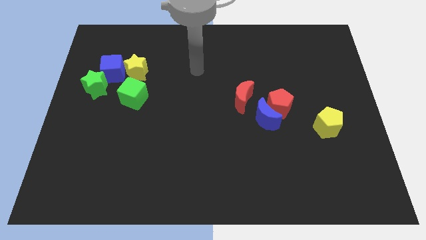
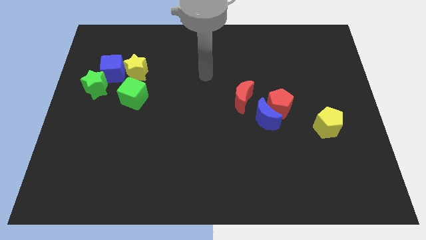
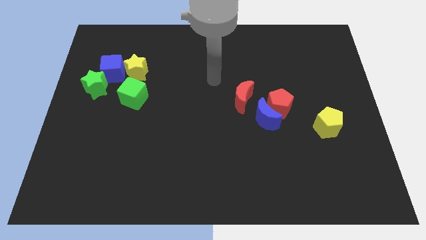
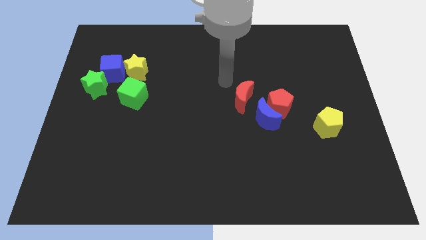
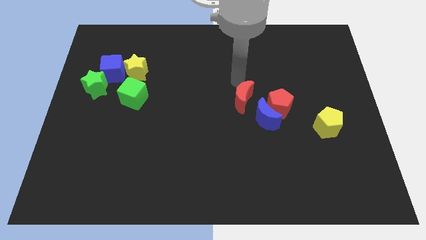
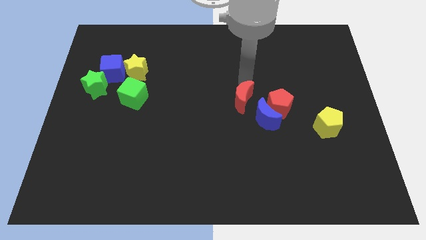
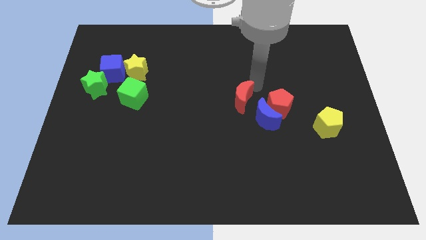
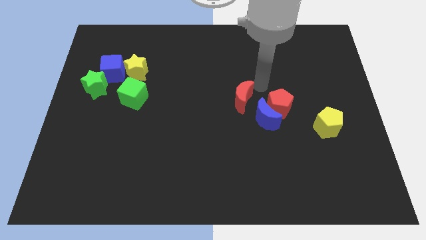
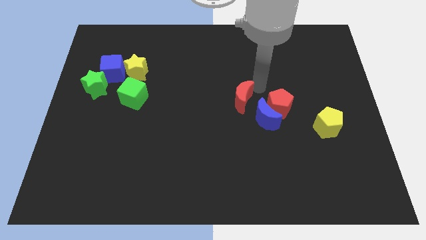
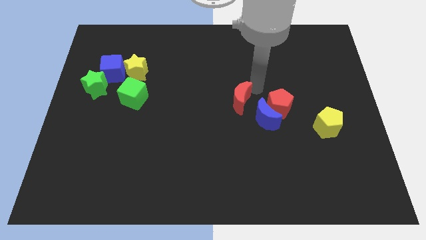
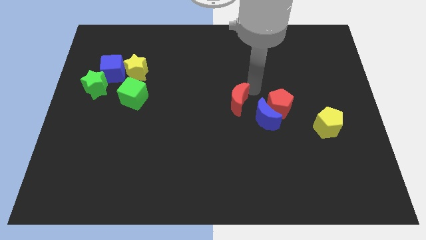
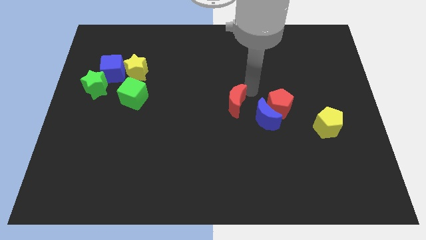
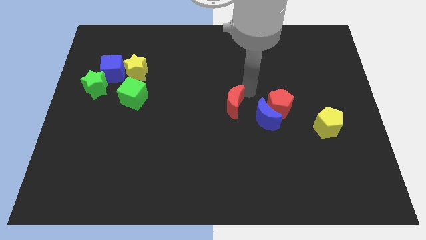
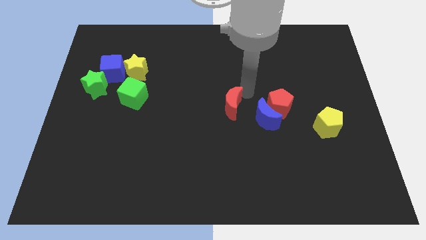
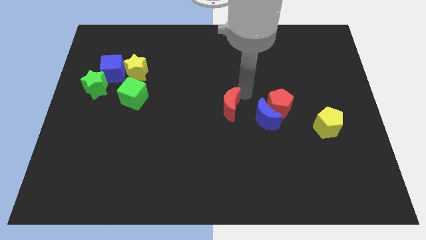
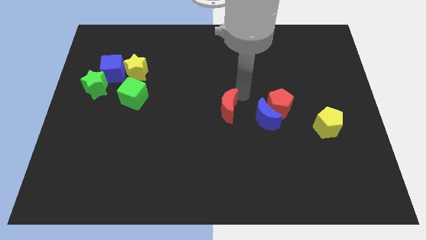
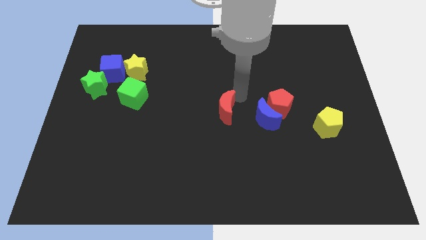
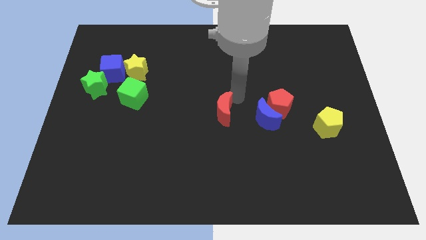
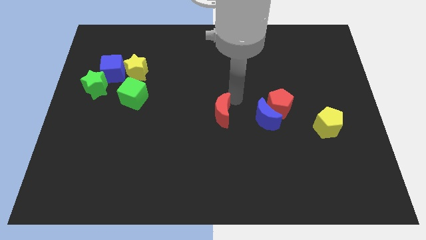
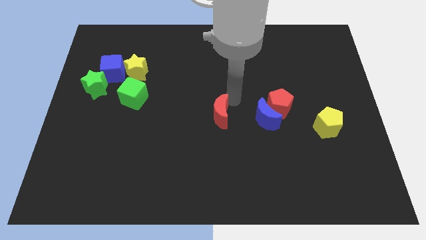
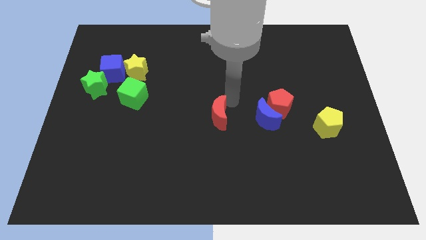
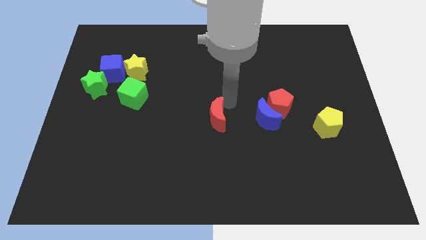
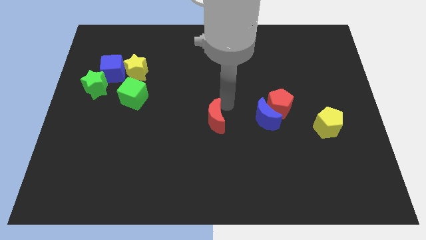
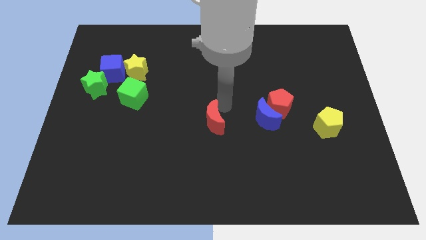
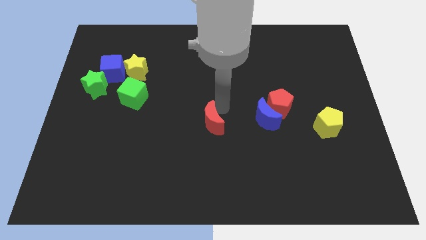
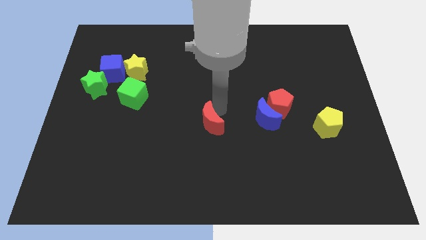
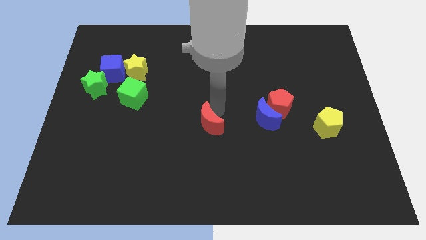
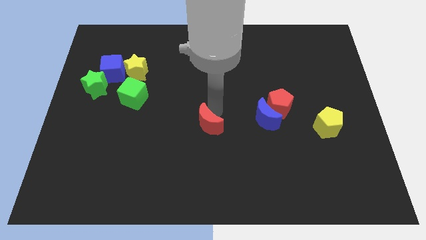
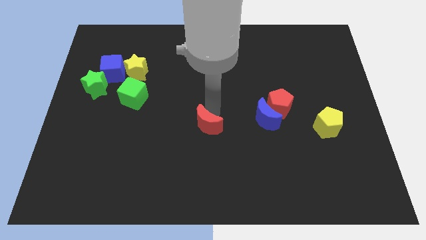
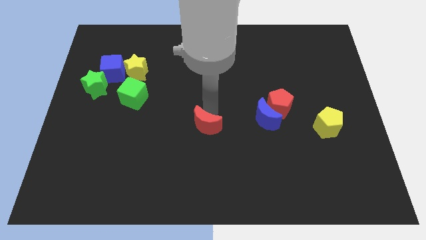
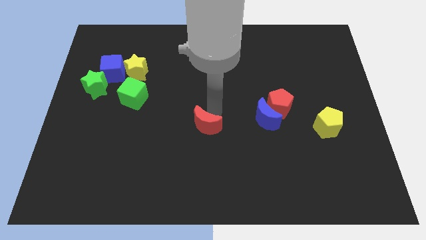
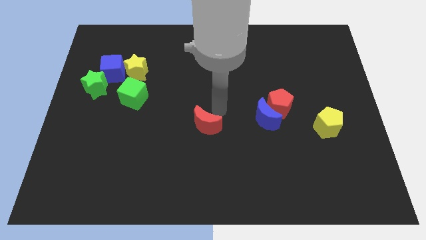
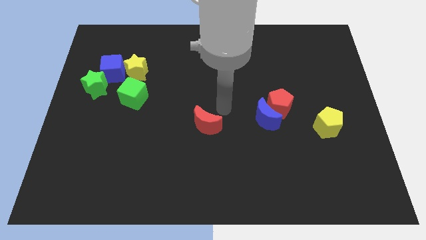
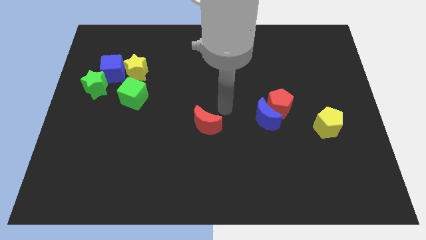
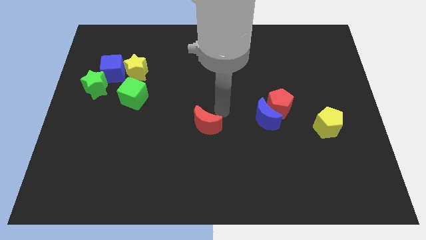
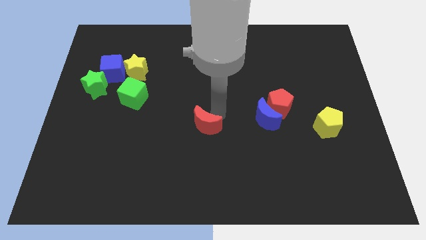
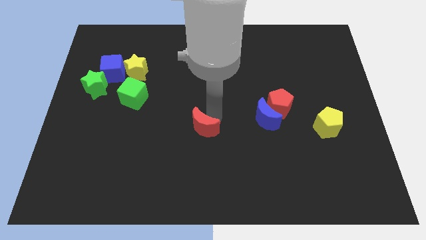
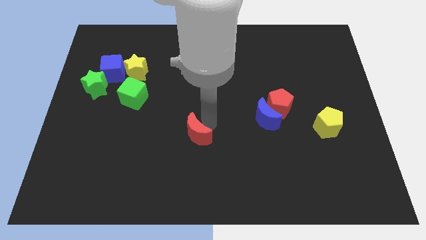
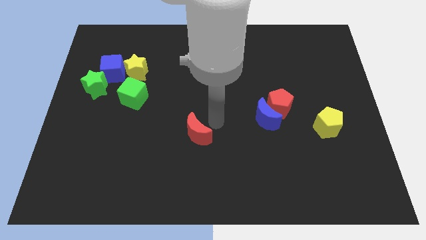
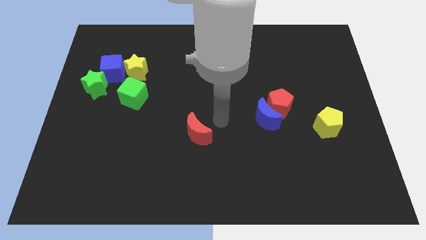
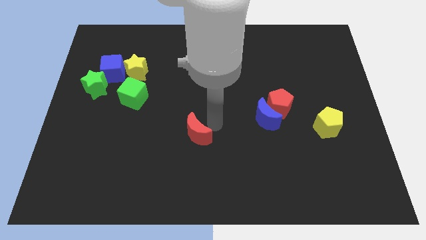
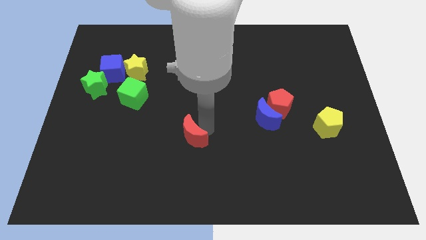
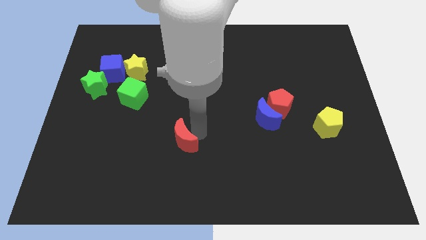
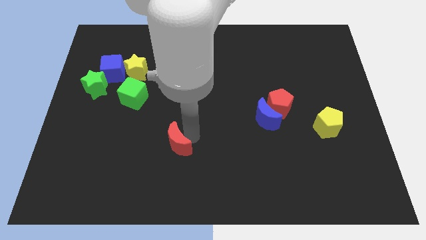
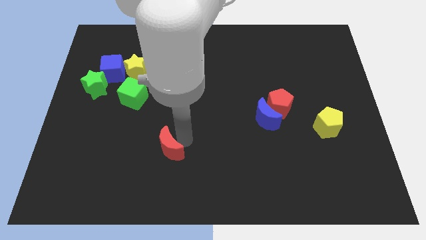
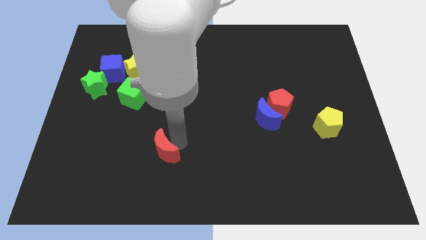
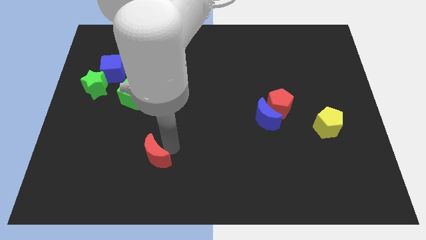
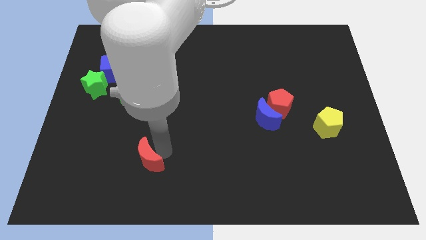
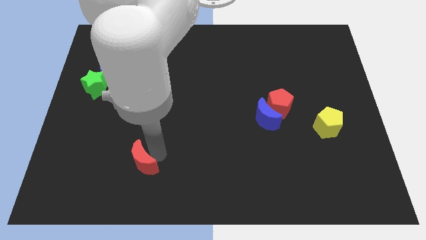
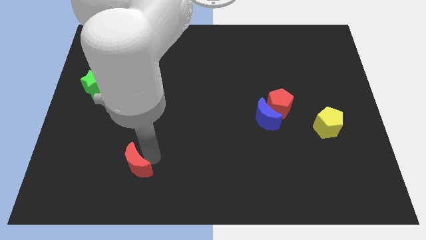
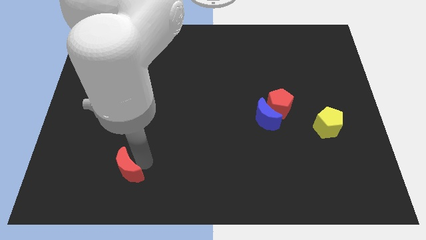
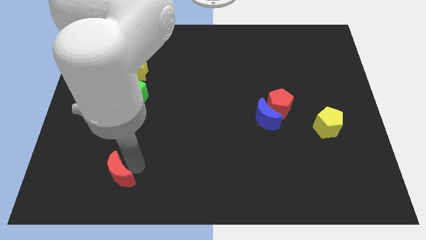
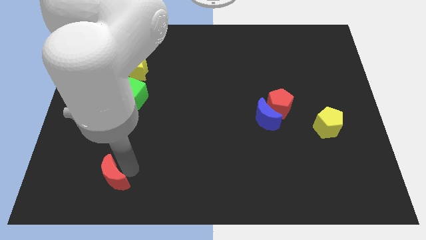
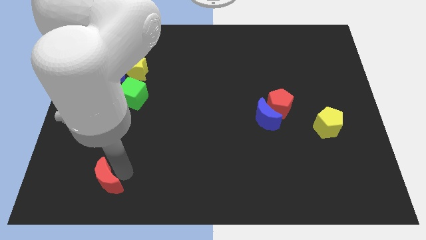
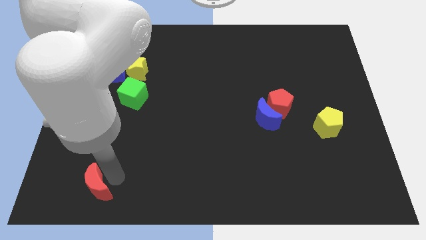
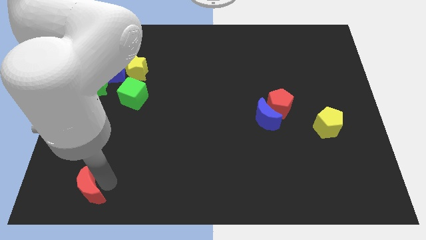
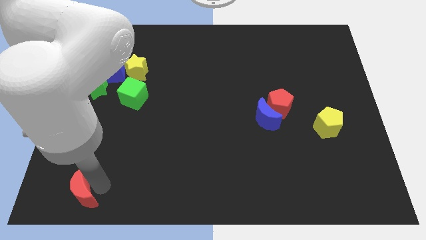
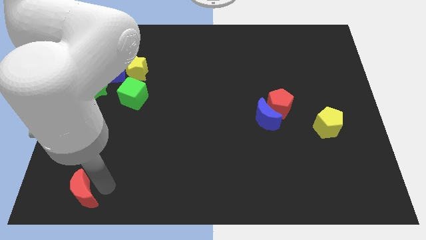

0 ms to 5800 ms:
slide the red moon to the bottom left corner

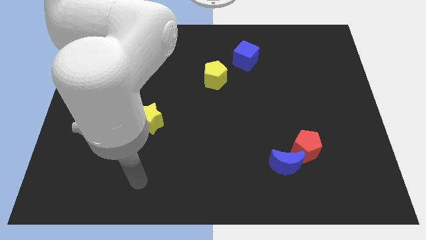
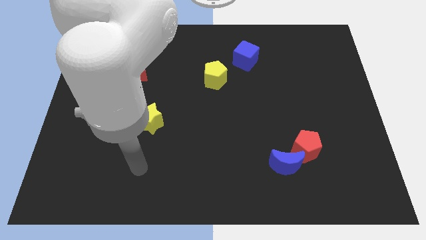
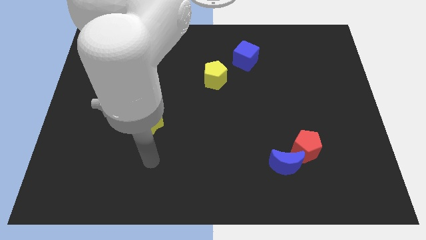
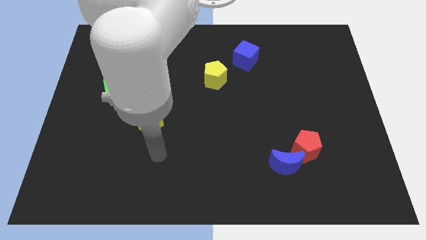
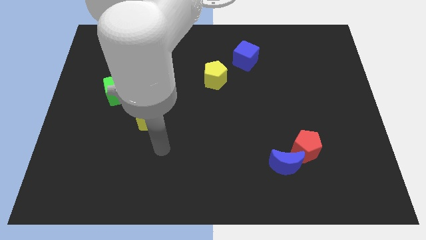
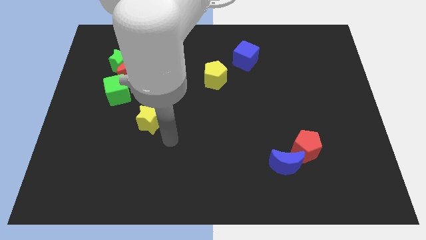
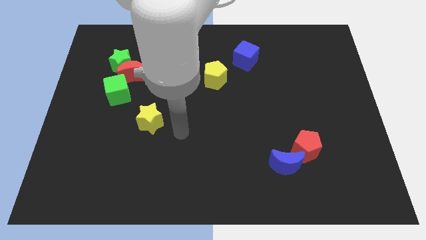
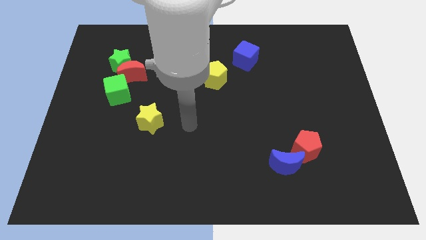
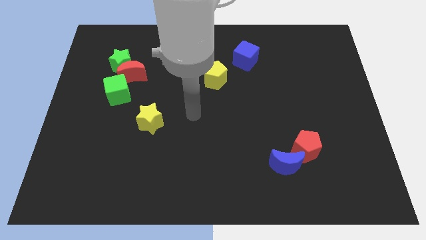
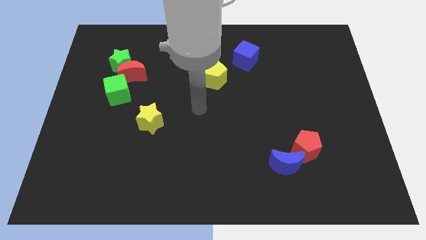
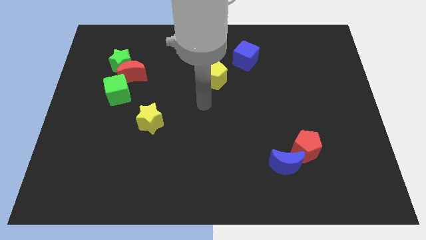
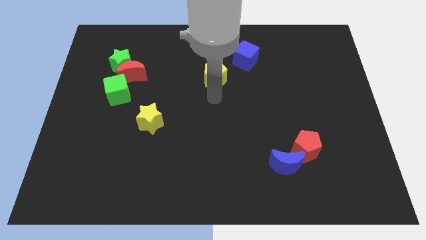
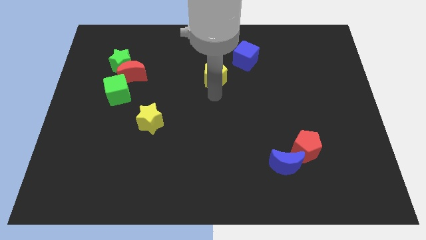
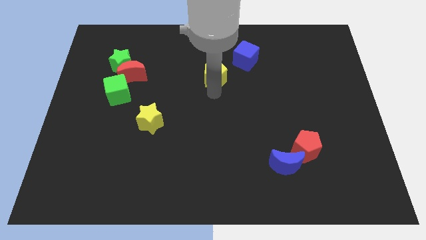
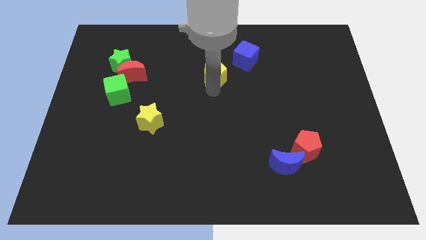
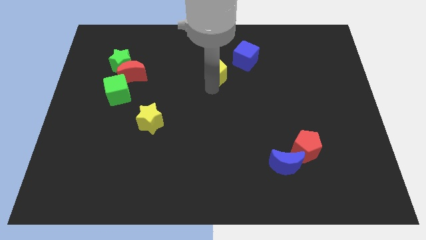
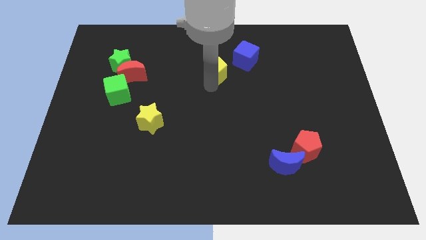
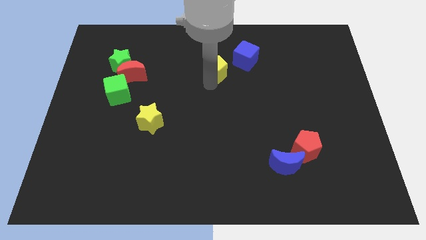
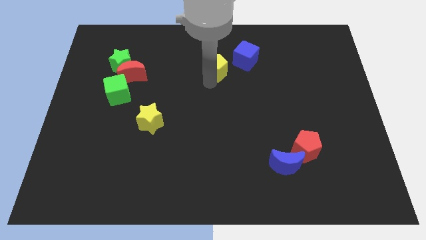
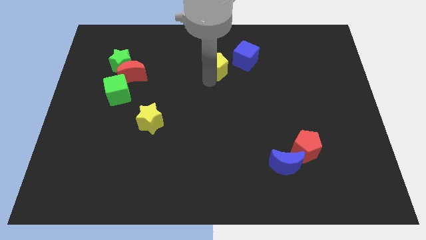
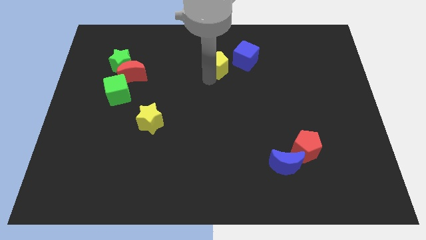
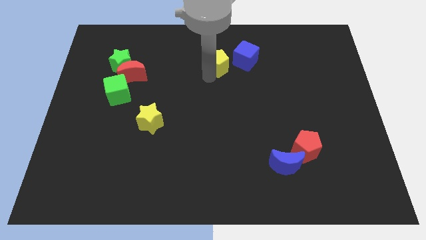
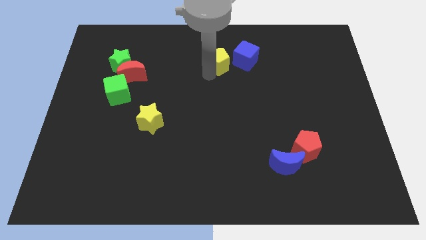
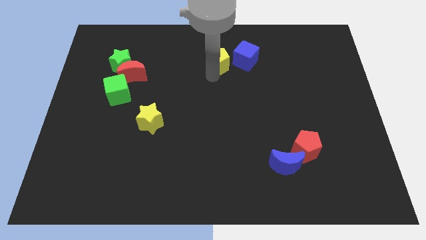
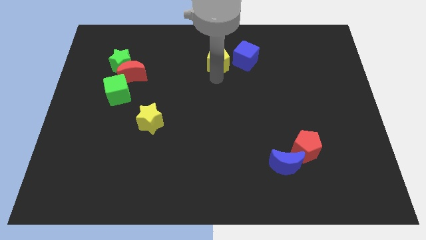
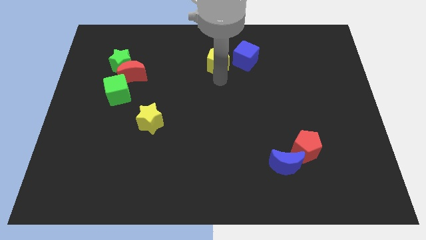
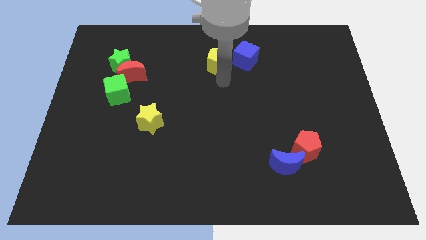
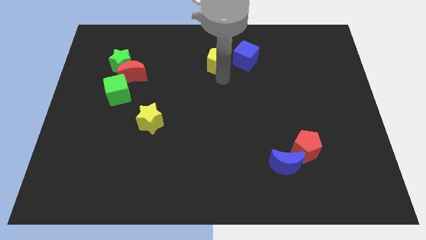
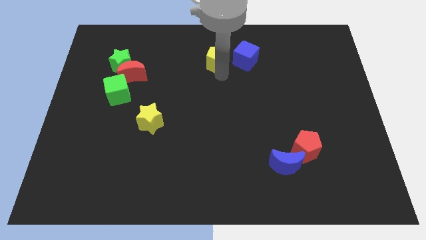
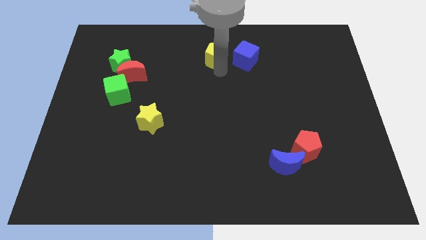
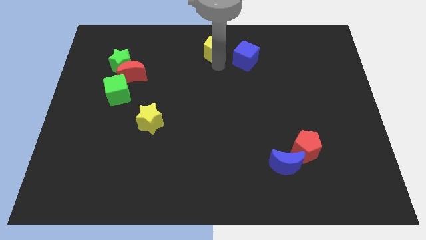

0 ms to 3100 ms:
move the yellow pentagon to the towards your base
